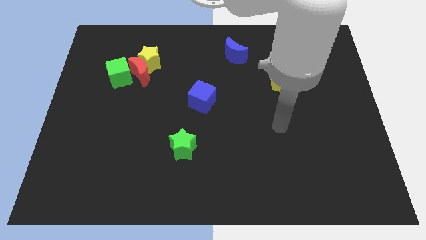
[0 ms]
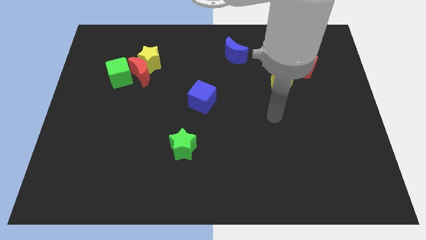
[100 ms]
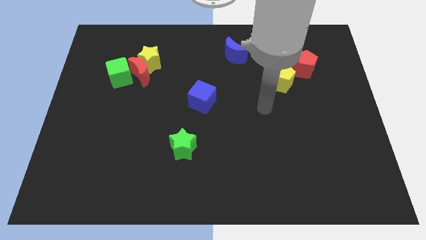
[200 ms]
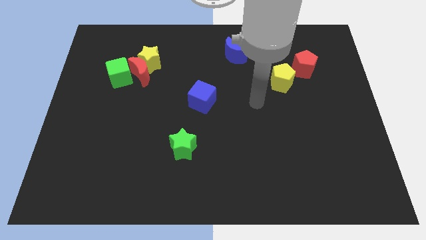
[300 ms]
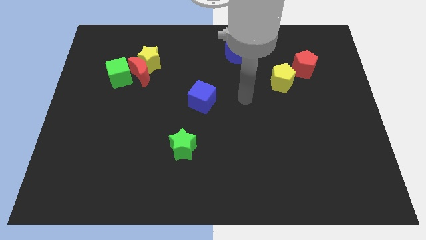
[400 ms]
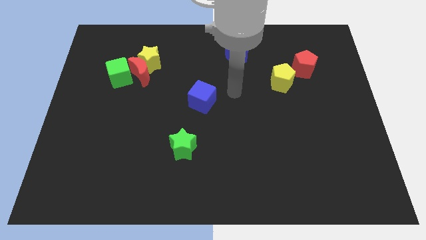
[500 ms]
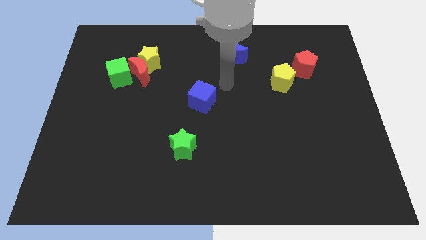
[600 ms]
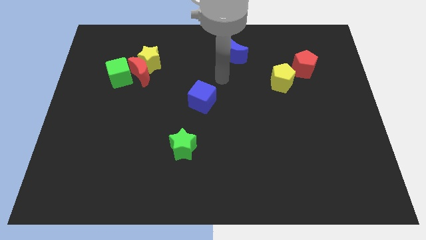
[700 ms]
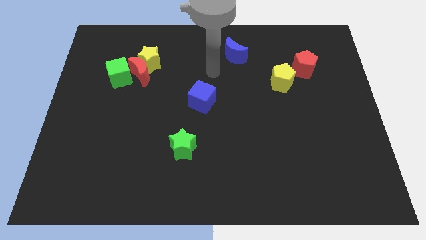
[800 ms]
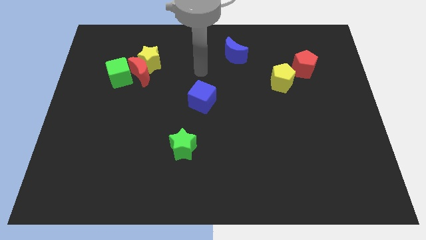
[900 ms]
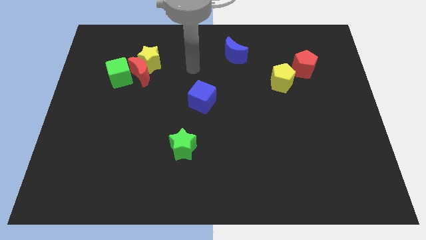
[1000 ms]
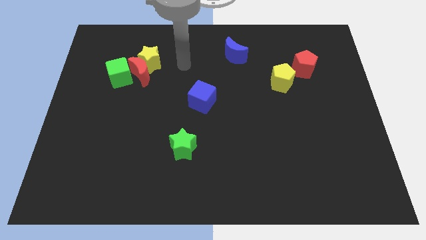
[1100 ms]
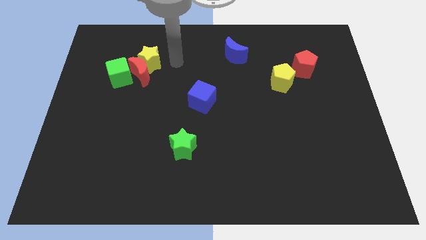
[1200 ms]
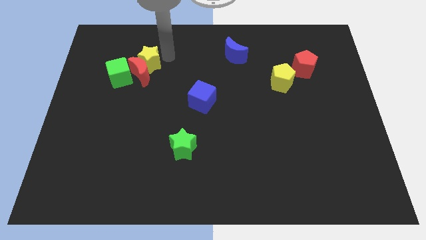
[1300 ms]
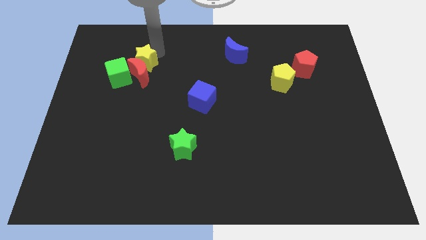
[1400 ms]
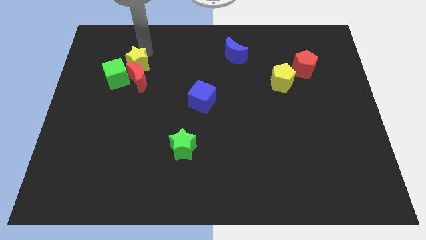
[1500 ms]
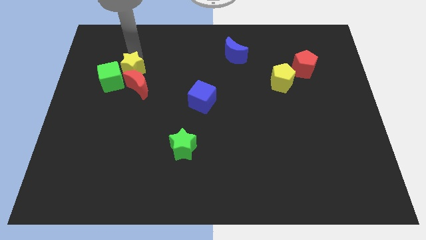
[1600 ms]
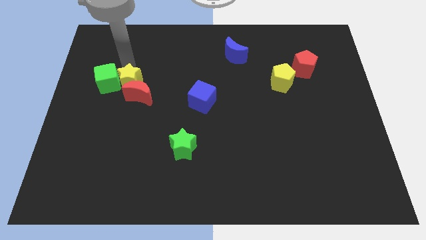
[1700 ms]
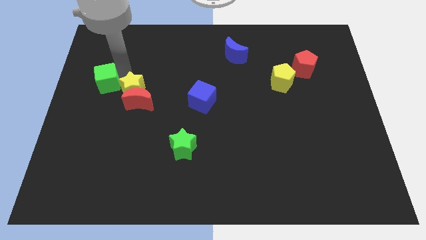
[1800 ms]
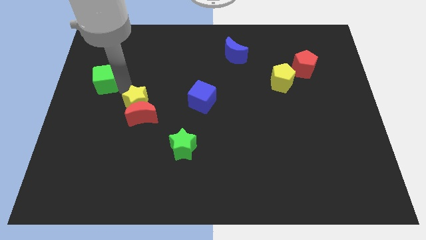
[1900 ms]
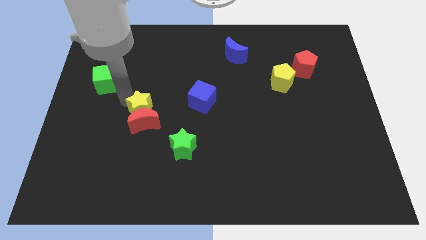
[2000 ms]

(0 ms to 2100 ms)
move the red moon away from the yellow star and green cube

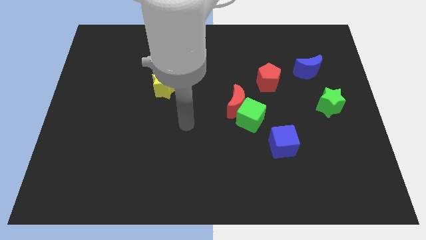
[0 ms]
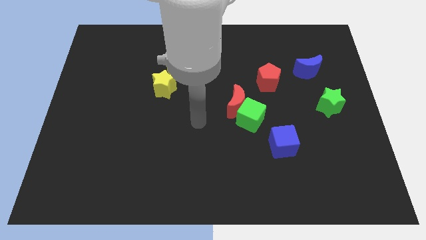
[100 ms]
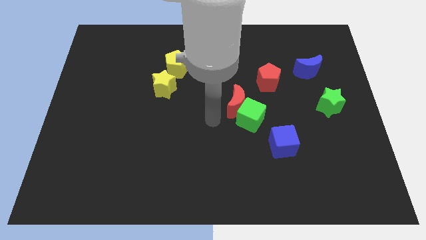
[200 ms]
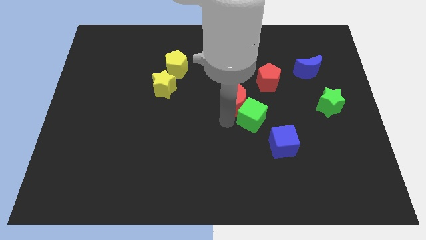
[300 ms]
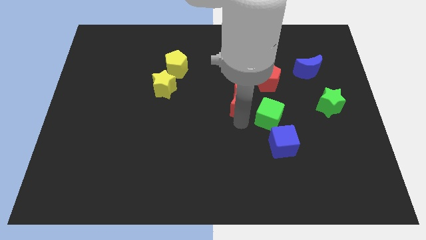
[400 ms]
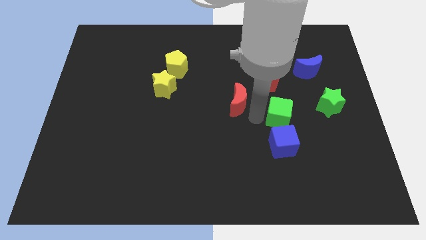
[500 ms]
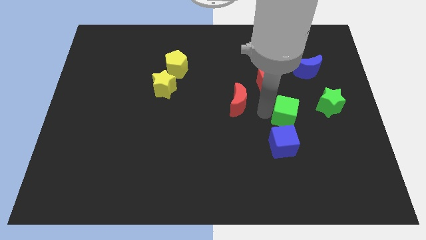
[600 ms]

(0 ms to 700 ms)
separate the red moon from the green cube

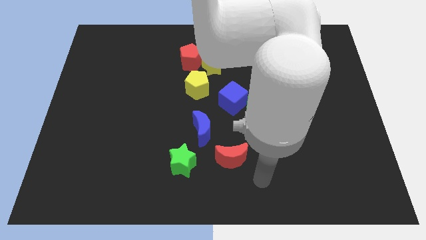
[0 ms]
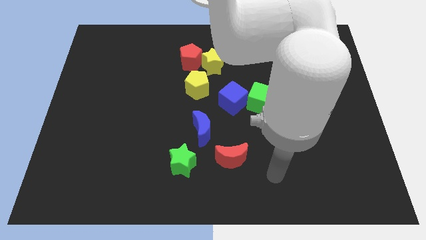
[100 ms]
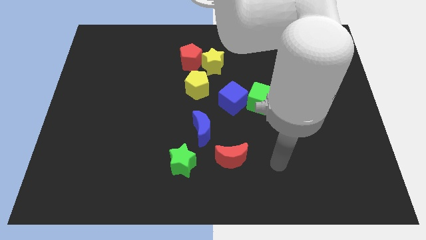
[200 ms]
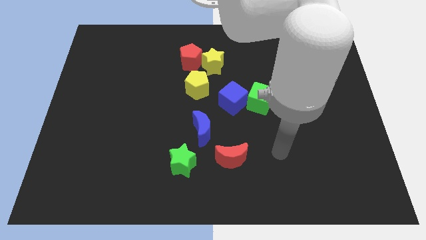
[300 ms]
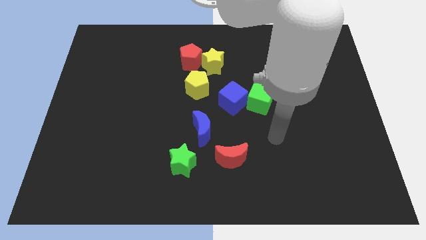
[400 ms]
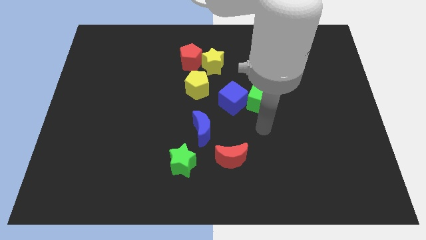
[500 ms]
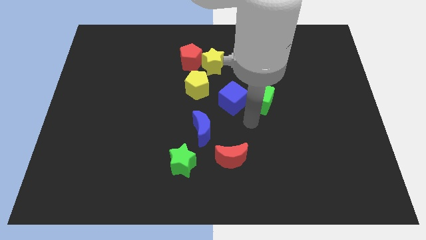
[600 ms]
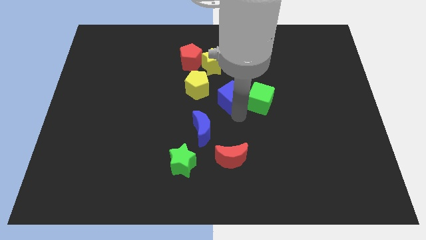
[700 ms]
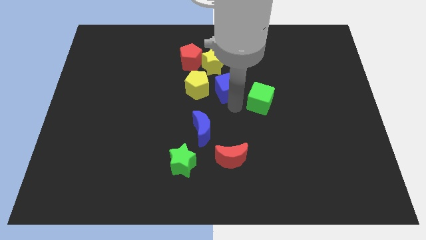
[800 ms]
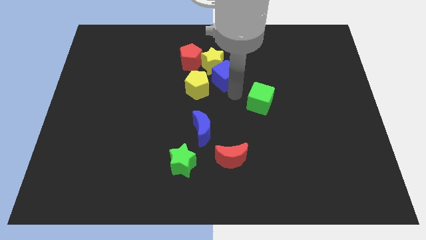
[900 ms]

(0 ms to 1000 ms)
move the green cube away from the blue cube

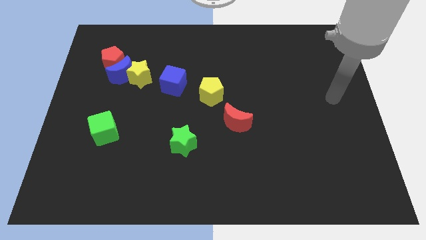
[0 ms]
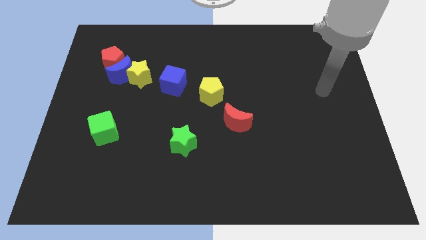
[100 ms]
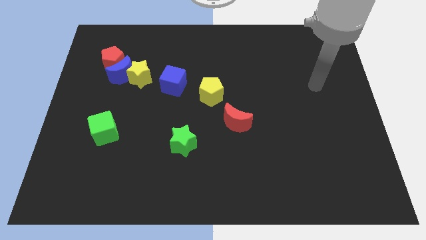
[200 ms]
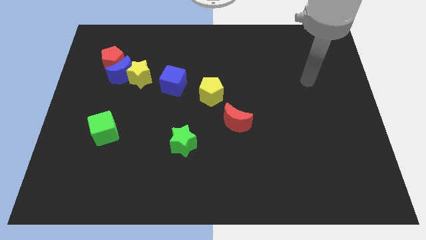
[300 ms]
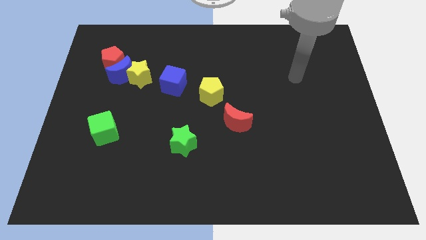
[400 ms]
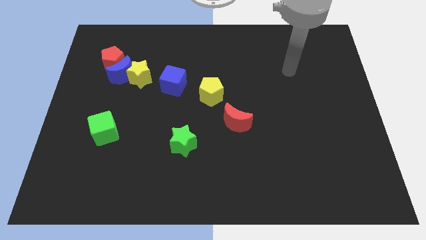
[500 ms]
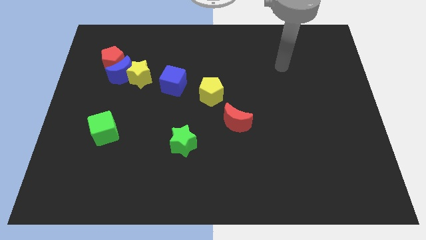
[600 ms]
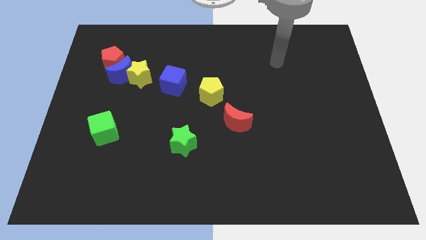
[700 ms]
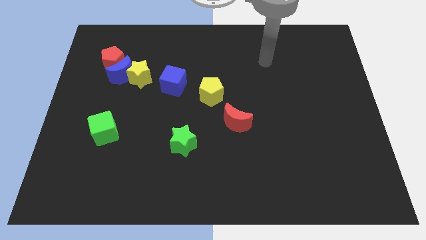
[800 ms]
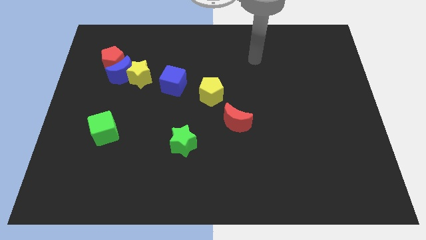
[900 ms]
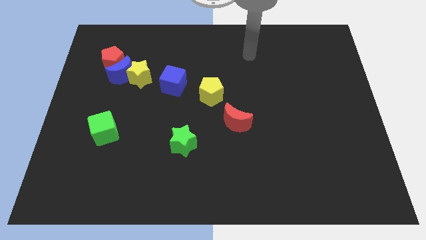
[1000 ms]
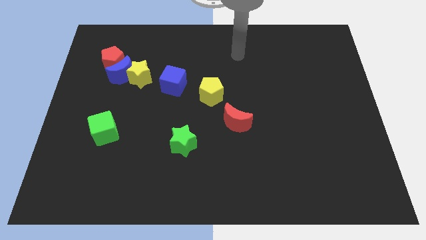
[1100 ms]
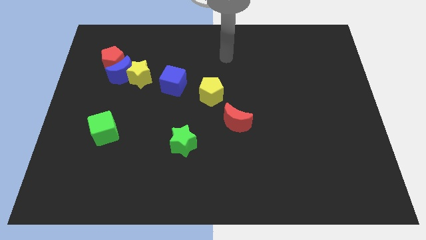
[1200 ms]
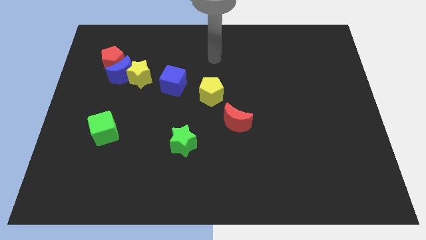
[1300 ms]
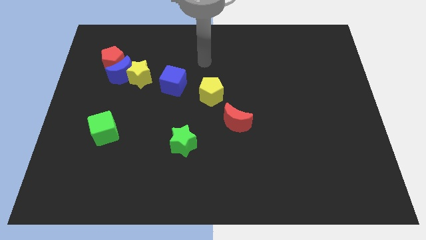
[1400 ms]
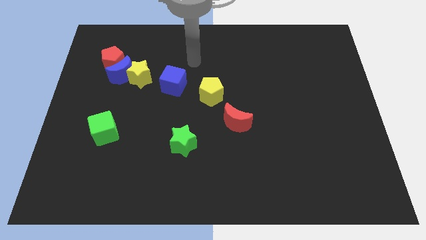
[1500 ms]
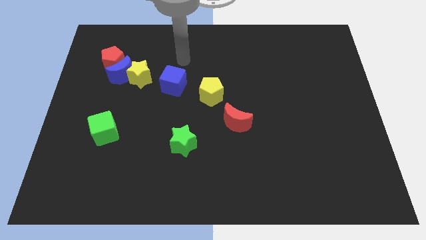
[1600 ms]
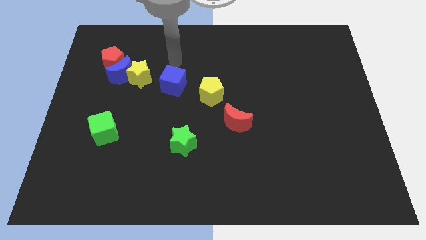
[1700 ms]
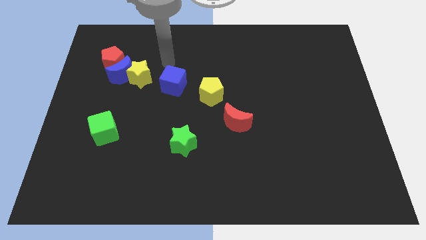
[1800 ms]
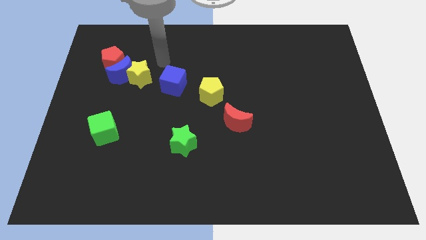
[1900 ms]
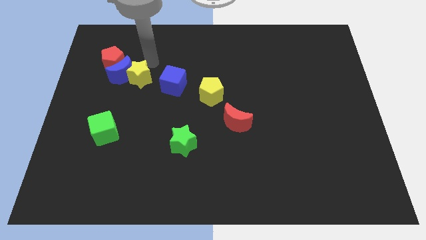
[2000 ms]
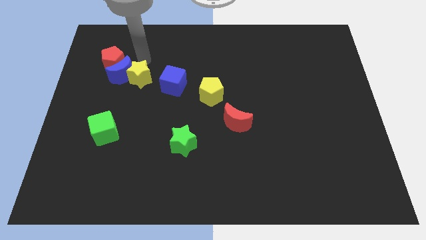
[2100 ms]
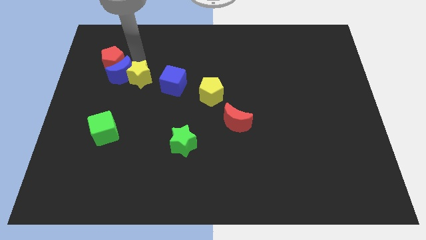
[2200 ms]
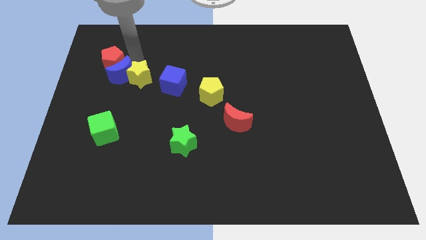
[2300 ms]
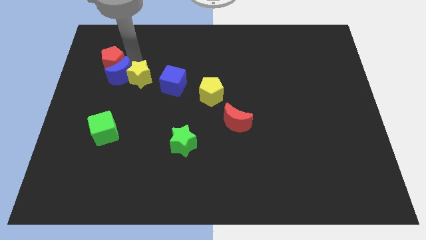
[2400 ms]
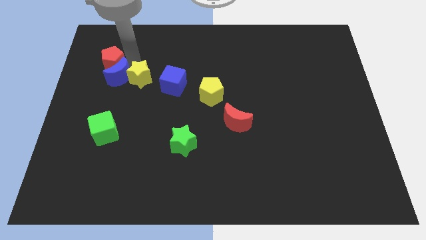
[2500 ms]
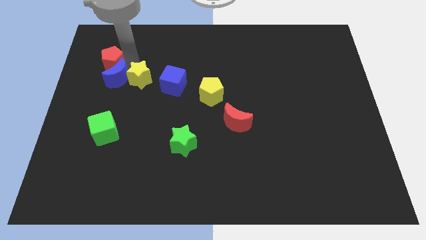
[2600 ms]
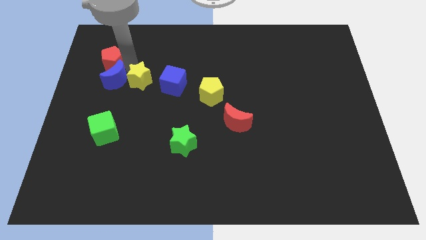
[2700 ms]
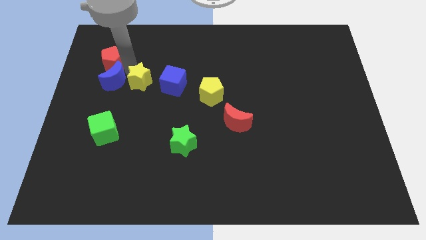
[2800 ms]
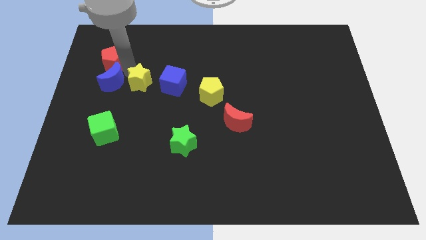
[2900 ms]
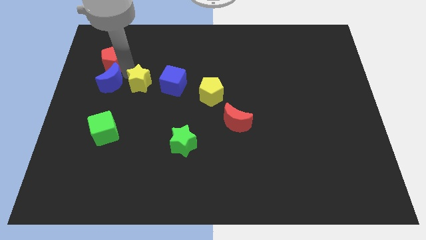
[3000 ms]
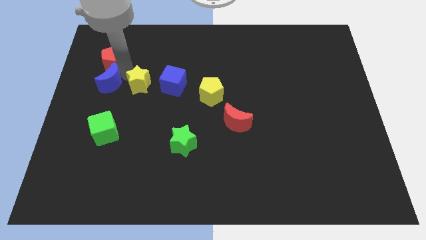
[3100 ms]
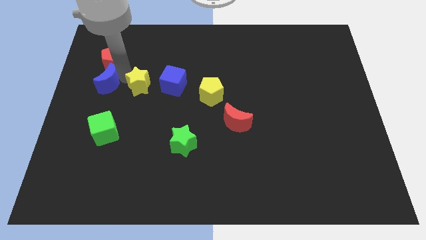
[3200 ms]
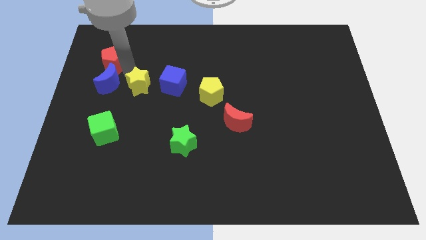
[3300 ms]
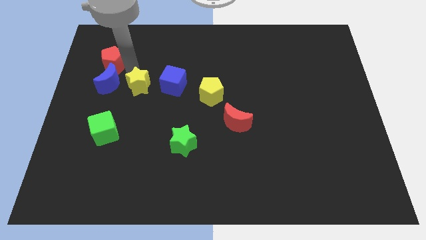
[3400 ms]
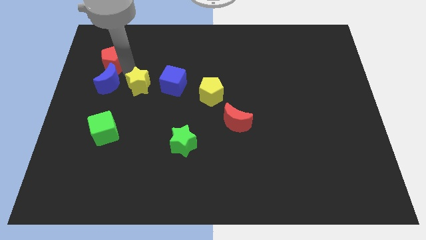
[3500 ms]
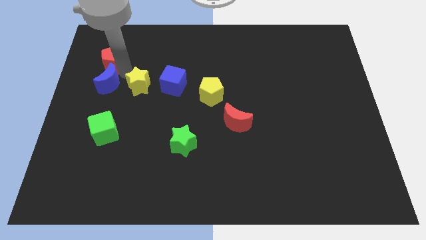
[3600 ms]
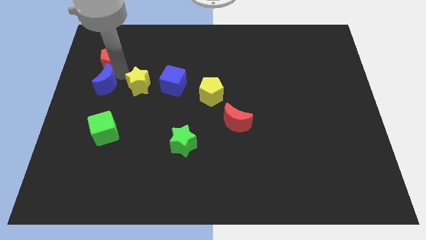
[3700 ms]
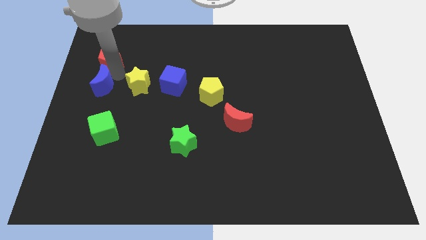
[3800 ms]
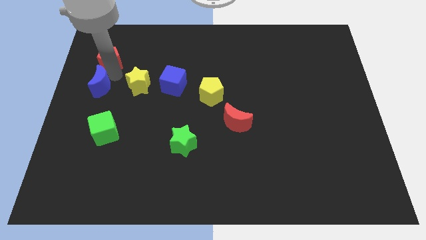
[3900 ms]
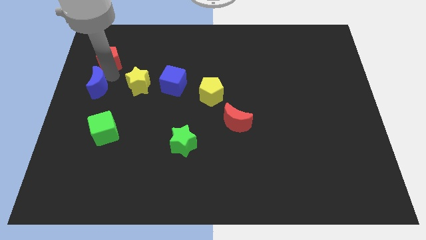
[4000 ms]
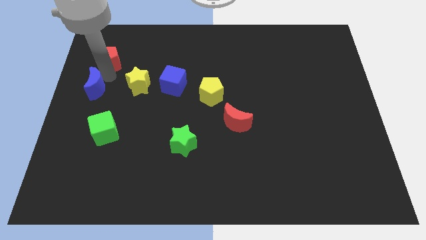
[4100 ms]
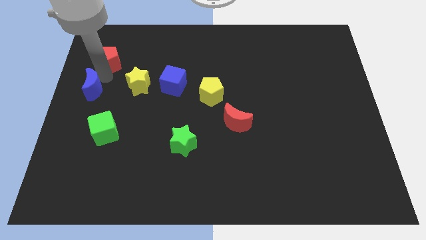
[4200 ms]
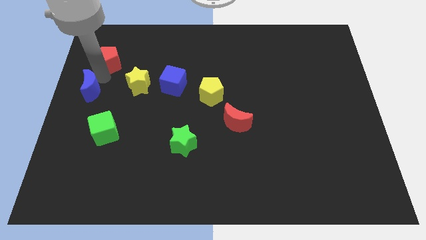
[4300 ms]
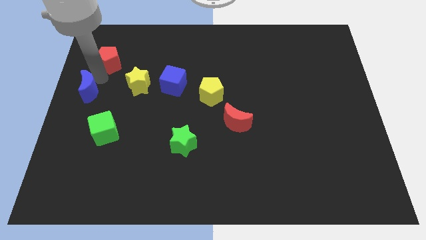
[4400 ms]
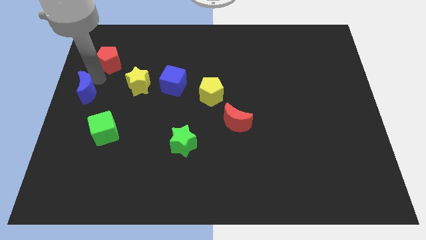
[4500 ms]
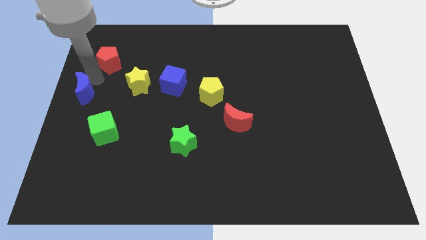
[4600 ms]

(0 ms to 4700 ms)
separate the blue moon from the yellow star and red pentagon

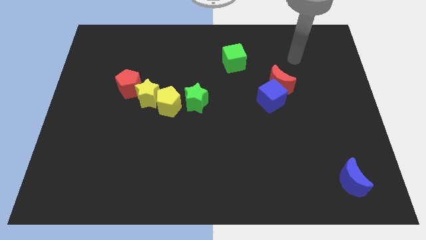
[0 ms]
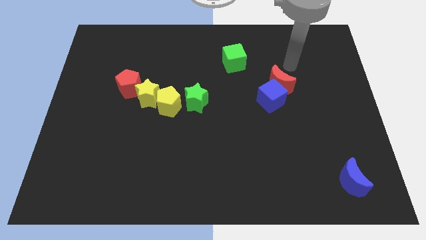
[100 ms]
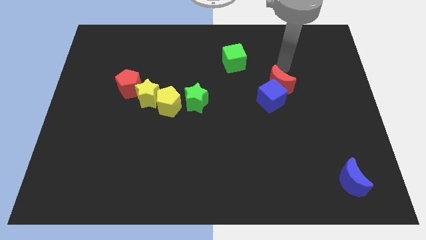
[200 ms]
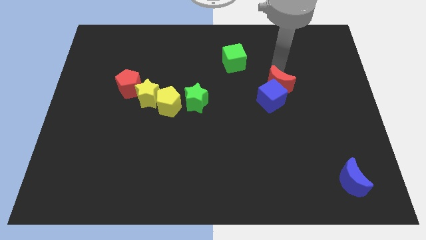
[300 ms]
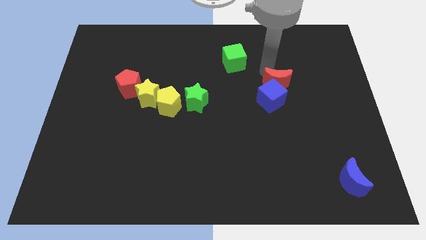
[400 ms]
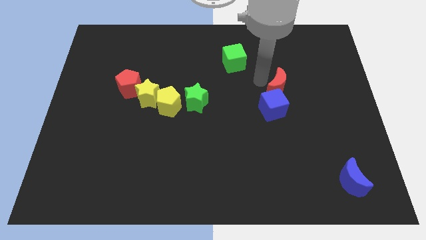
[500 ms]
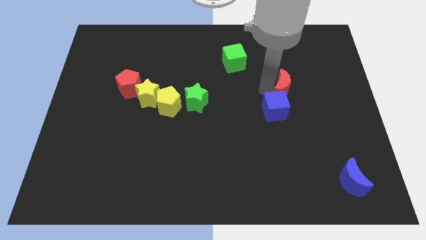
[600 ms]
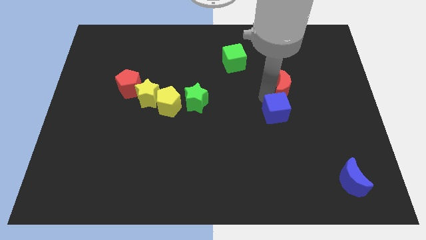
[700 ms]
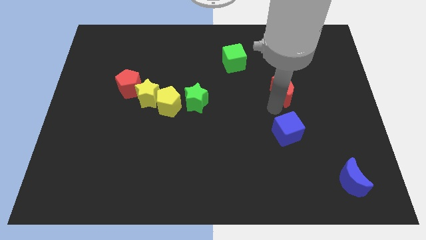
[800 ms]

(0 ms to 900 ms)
move the red moon away from the blue cube
